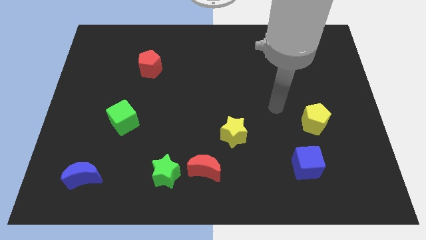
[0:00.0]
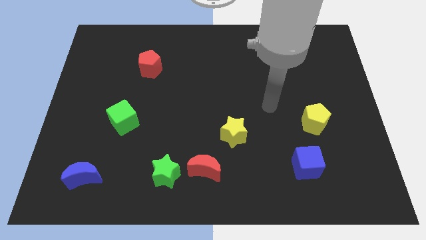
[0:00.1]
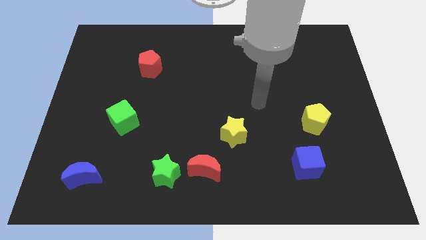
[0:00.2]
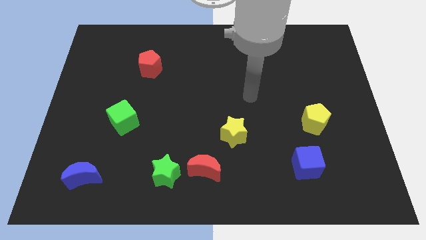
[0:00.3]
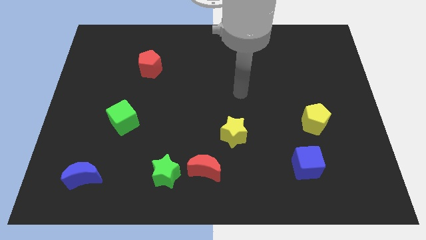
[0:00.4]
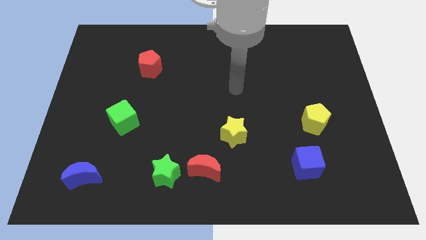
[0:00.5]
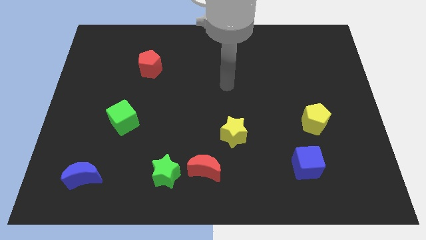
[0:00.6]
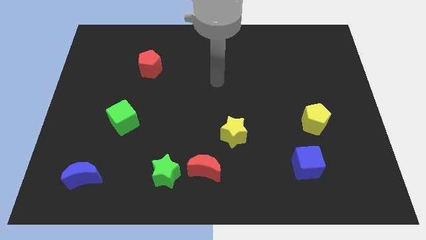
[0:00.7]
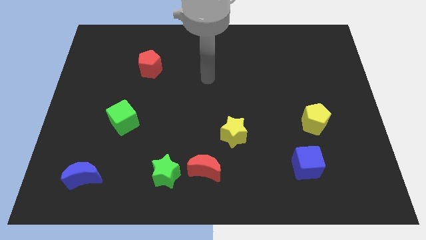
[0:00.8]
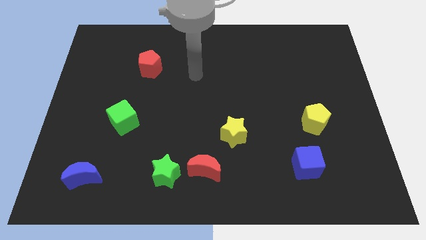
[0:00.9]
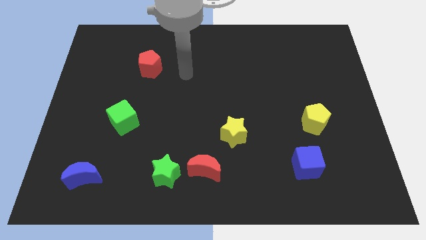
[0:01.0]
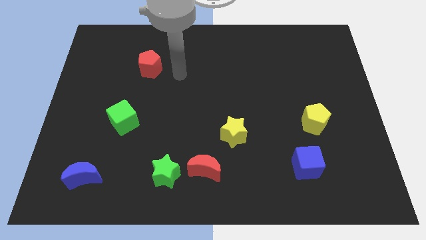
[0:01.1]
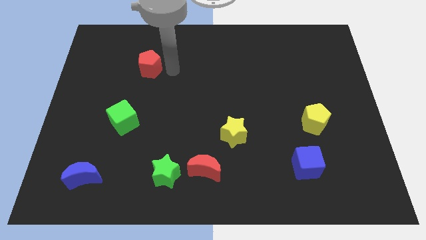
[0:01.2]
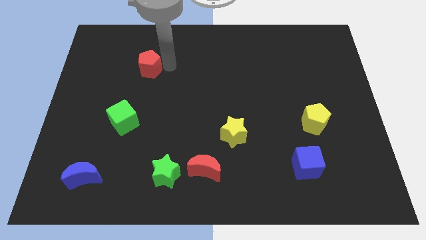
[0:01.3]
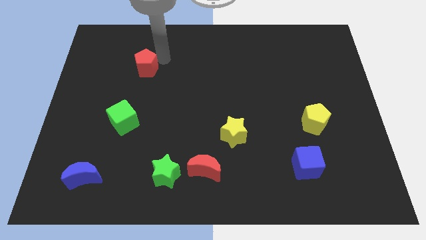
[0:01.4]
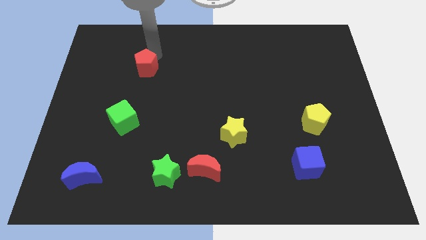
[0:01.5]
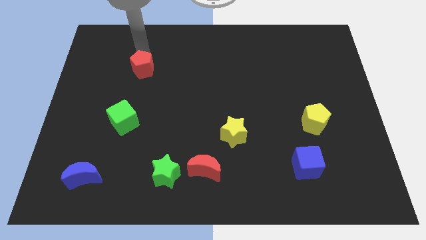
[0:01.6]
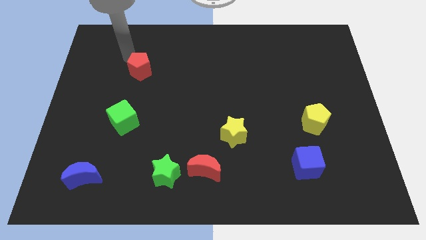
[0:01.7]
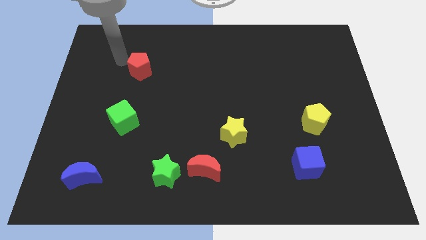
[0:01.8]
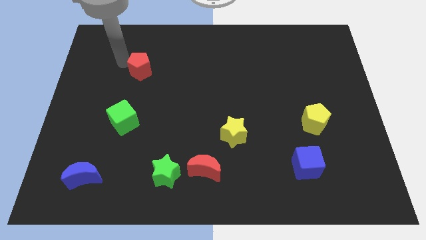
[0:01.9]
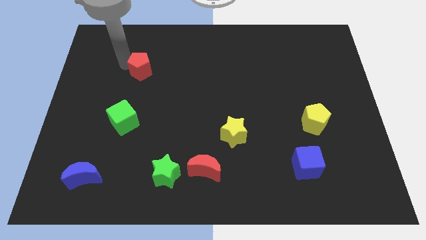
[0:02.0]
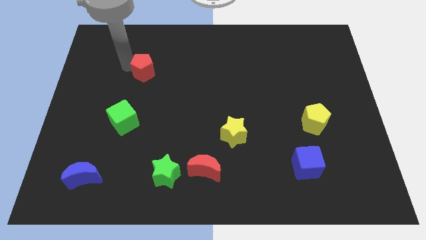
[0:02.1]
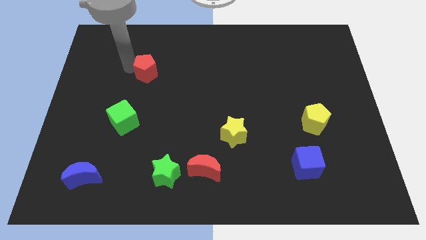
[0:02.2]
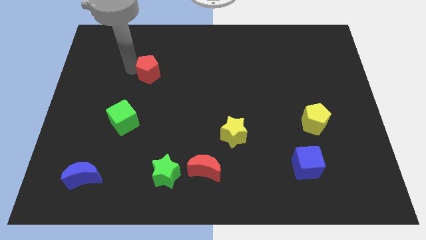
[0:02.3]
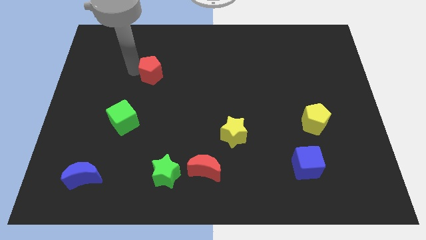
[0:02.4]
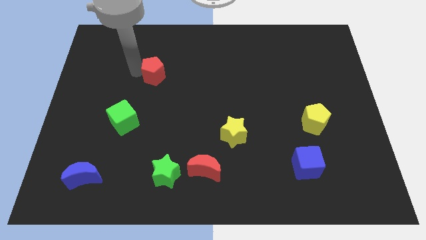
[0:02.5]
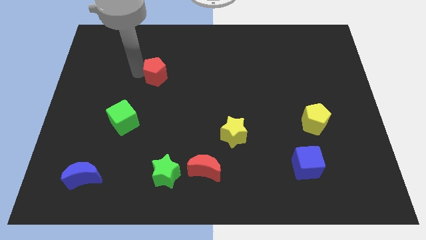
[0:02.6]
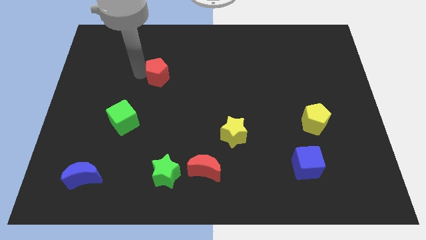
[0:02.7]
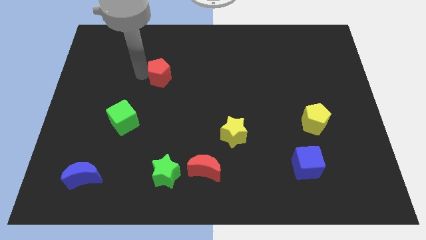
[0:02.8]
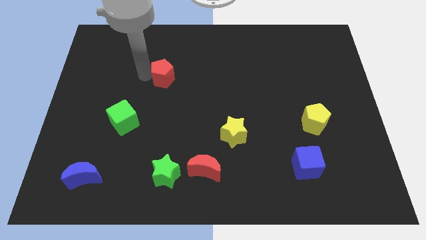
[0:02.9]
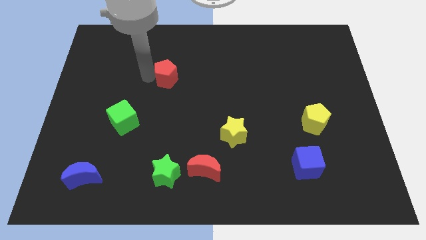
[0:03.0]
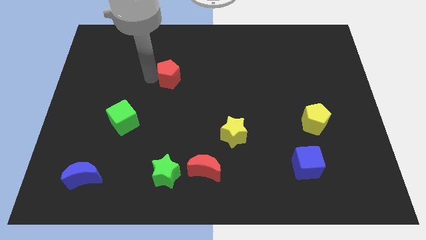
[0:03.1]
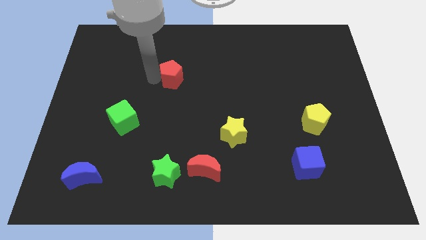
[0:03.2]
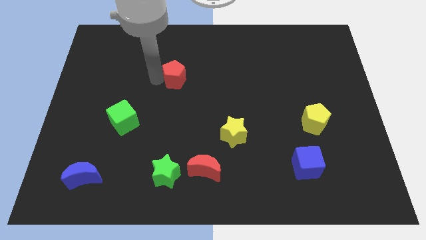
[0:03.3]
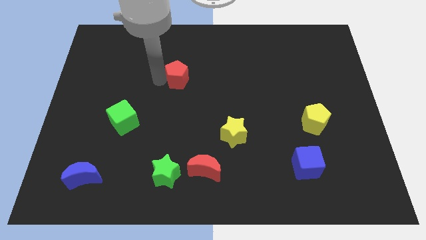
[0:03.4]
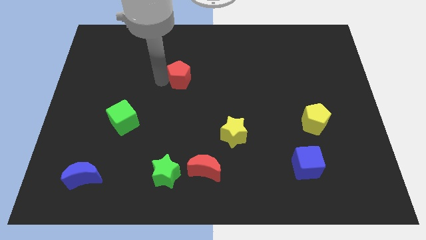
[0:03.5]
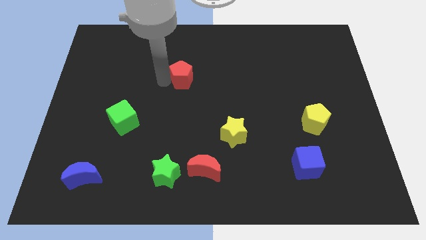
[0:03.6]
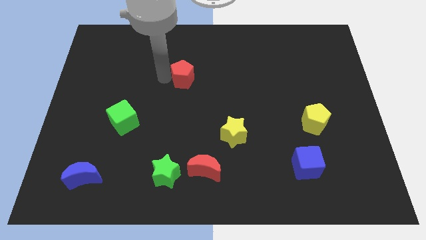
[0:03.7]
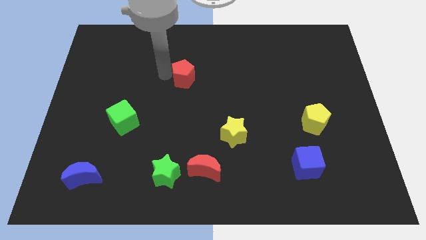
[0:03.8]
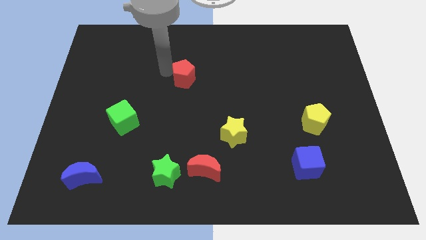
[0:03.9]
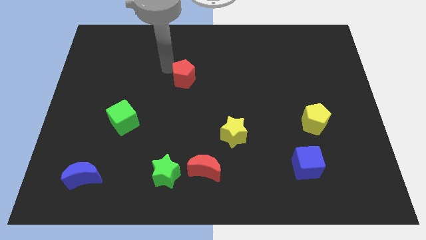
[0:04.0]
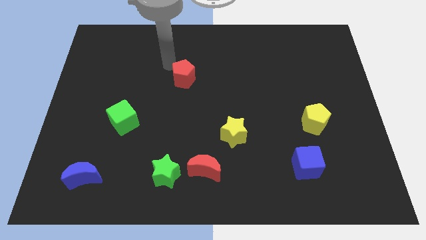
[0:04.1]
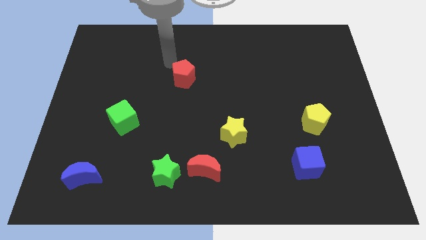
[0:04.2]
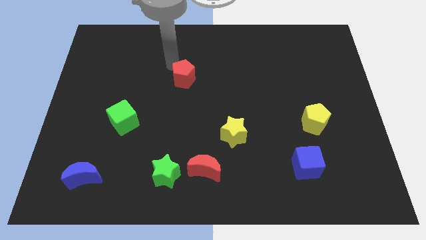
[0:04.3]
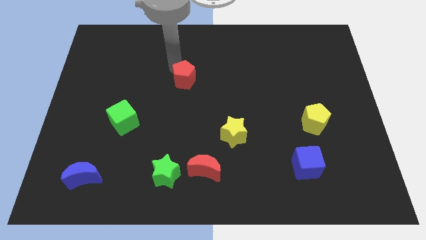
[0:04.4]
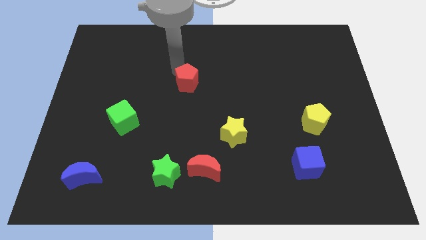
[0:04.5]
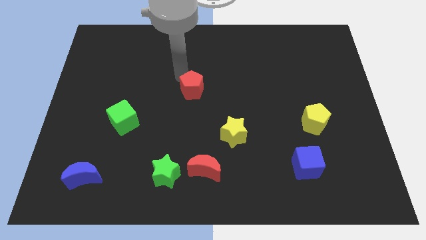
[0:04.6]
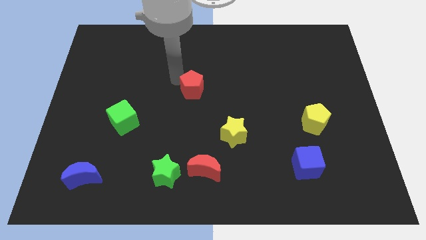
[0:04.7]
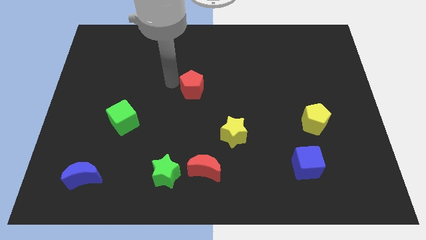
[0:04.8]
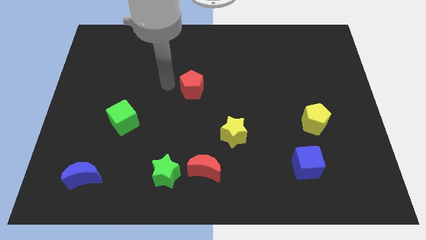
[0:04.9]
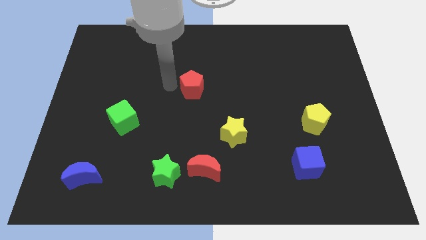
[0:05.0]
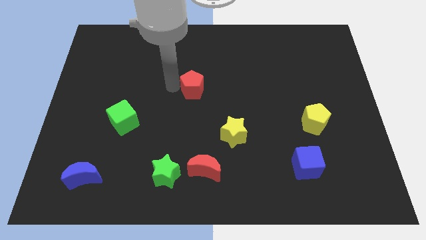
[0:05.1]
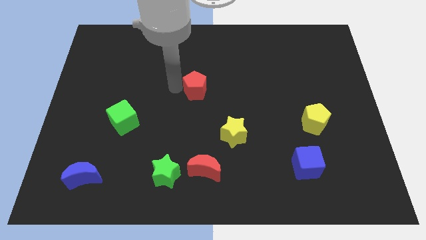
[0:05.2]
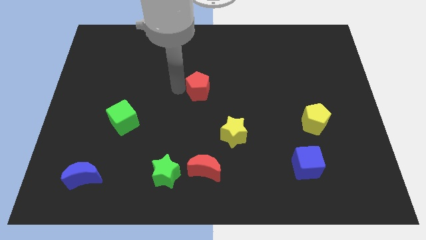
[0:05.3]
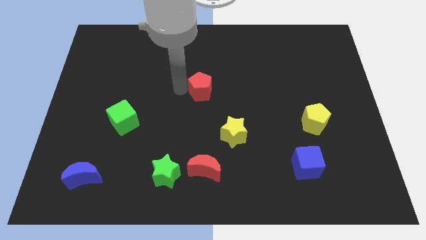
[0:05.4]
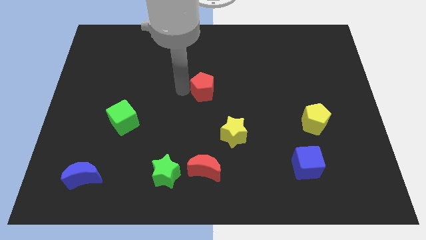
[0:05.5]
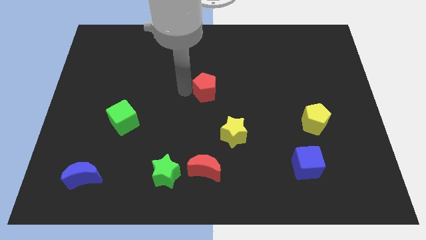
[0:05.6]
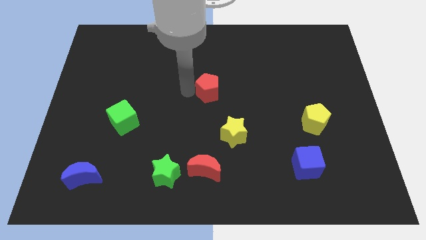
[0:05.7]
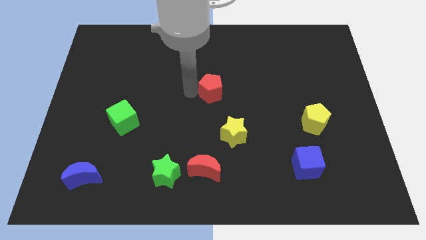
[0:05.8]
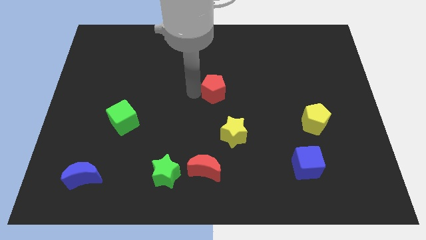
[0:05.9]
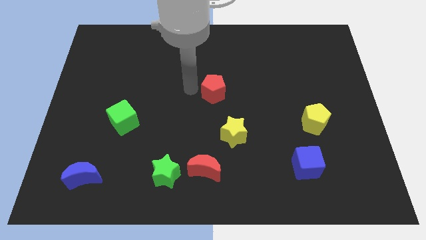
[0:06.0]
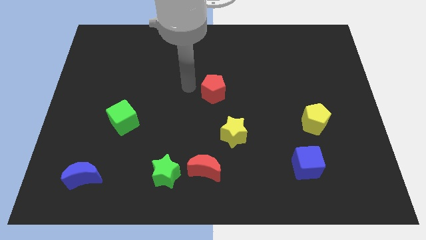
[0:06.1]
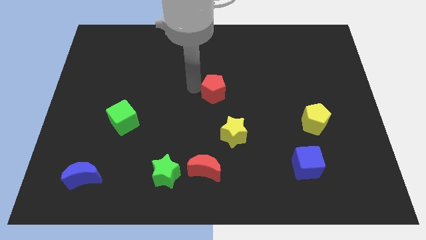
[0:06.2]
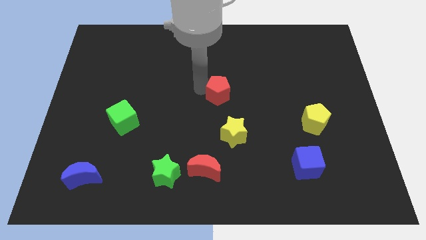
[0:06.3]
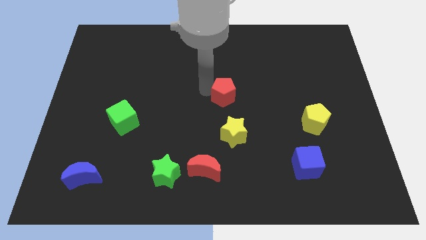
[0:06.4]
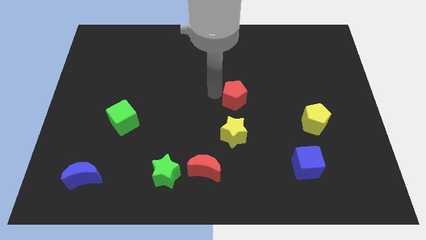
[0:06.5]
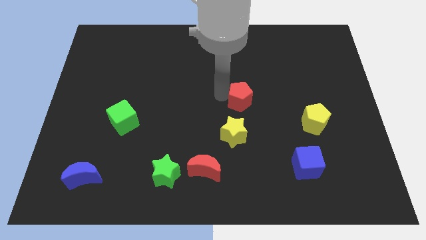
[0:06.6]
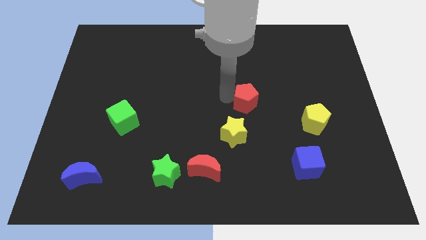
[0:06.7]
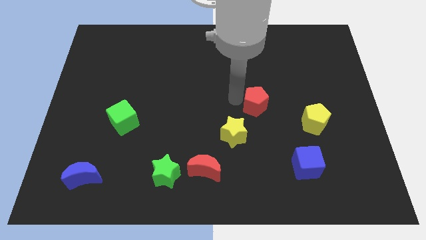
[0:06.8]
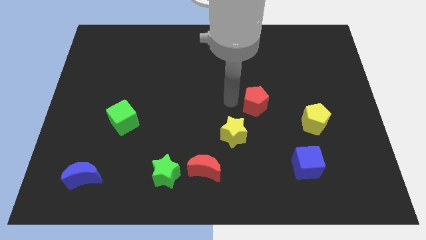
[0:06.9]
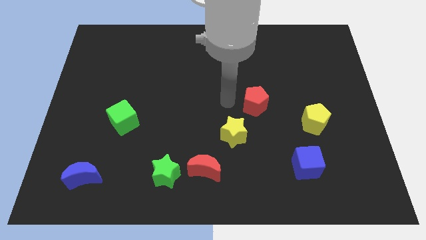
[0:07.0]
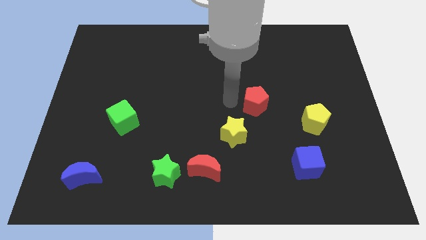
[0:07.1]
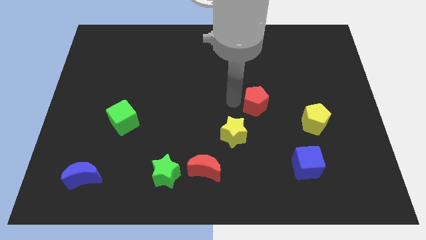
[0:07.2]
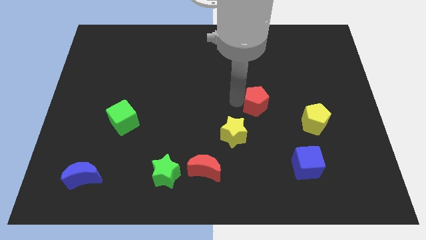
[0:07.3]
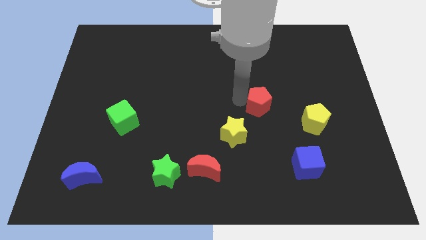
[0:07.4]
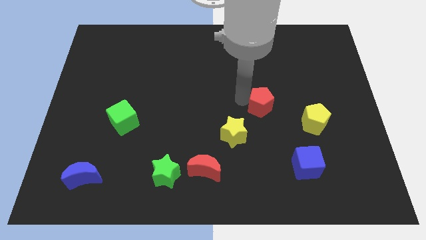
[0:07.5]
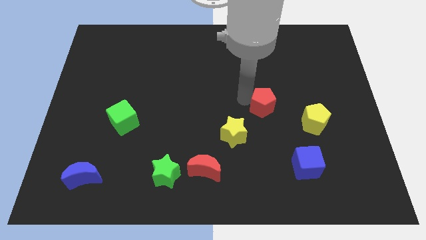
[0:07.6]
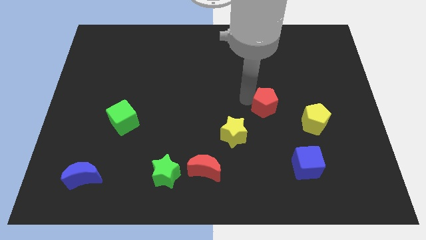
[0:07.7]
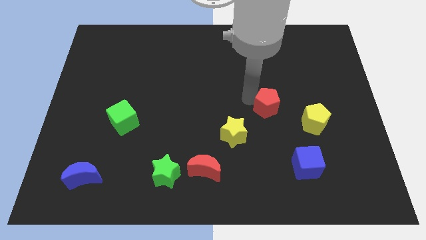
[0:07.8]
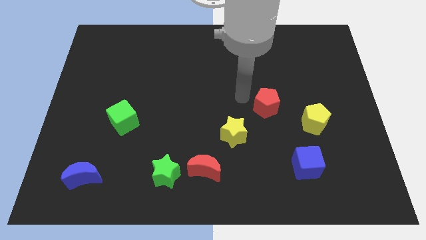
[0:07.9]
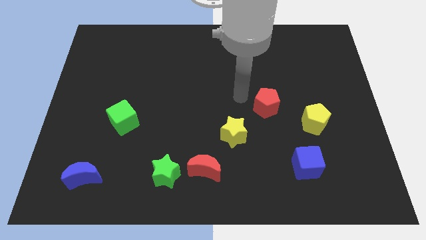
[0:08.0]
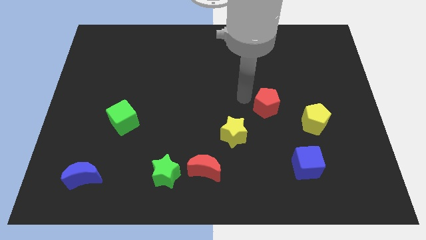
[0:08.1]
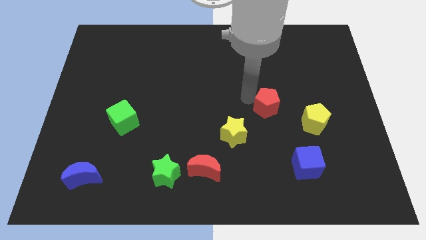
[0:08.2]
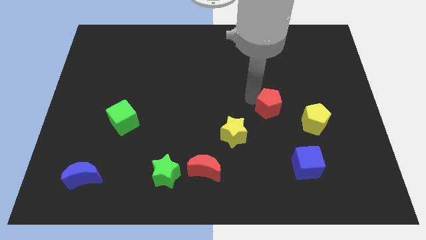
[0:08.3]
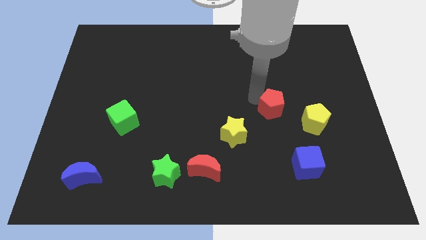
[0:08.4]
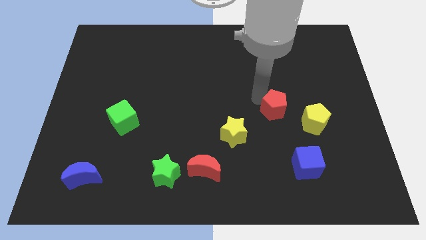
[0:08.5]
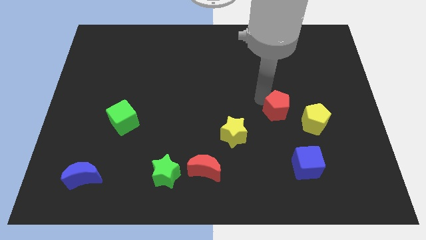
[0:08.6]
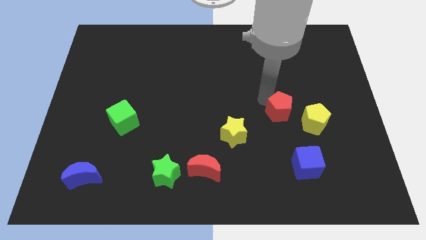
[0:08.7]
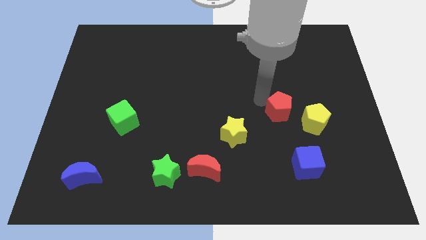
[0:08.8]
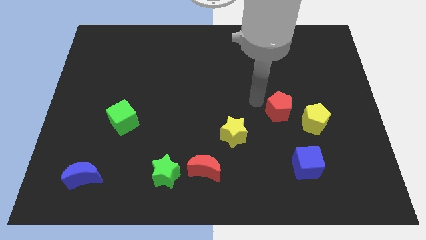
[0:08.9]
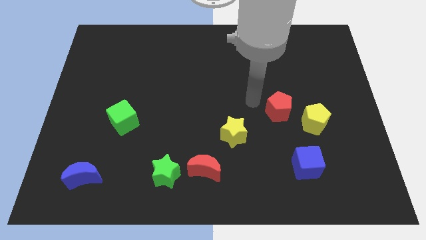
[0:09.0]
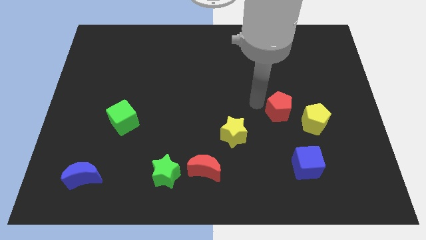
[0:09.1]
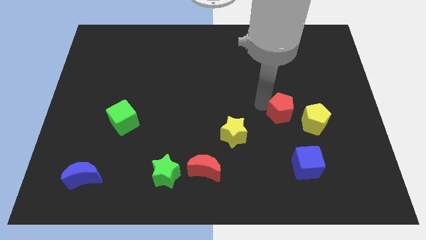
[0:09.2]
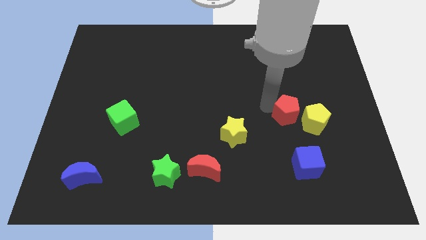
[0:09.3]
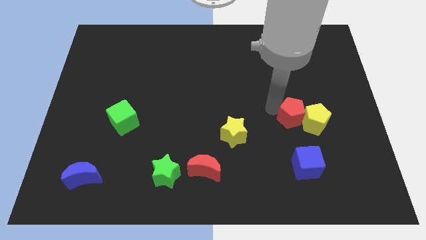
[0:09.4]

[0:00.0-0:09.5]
slide the red pentagon close to the yellow pentagon
